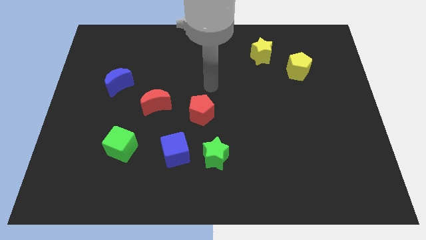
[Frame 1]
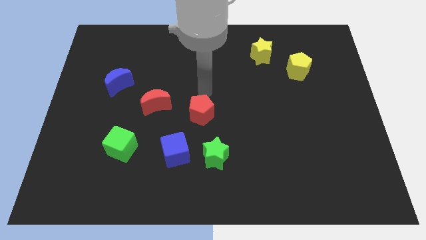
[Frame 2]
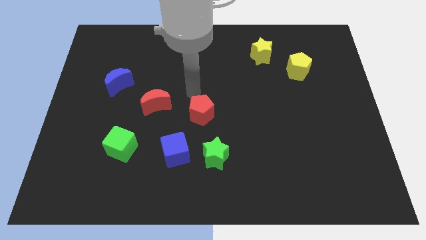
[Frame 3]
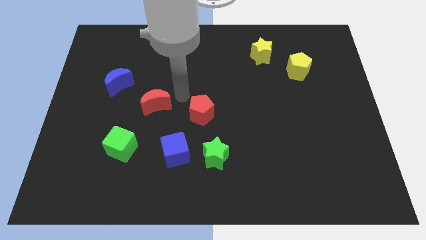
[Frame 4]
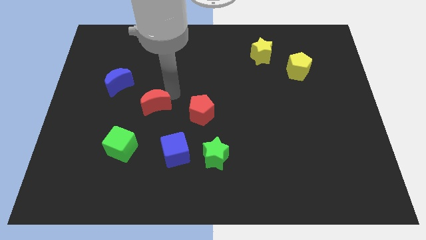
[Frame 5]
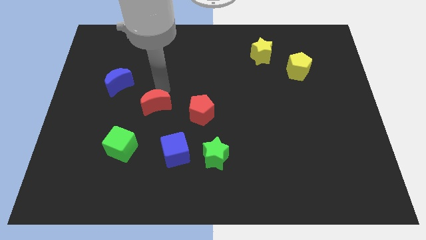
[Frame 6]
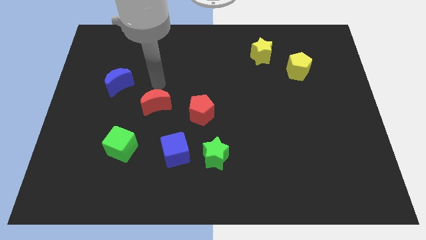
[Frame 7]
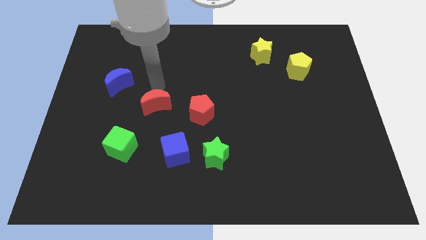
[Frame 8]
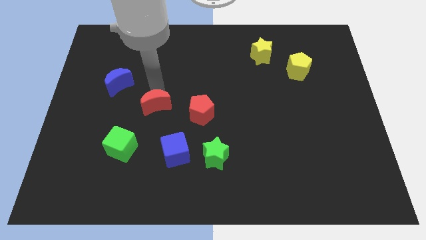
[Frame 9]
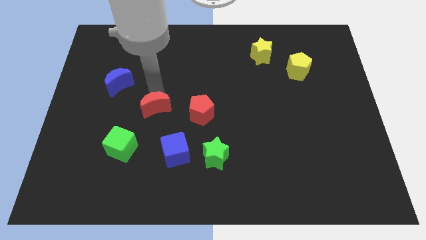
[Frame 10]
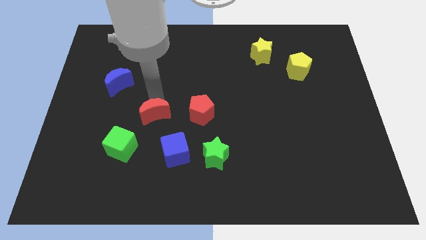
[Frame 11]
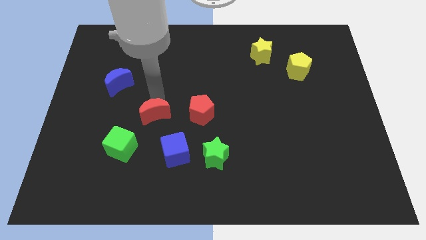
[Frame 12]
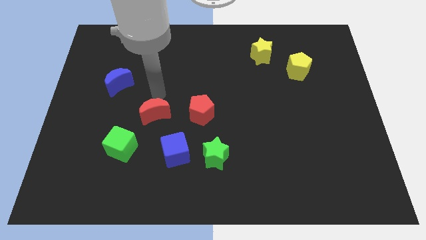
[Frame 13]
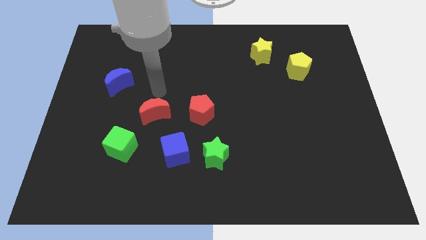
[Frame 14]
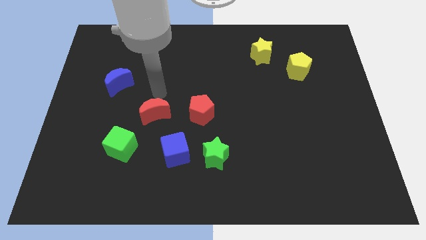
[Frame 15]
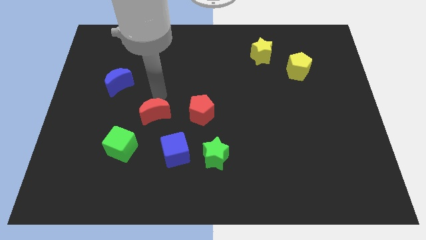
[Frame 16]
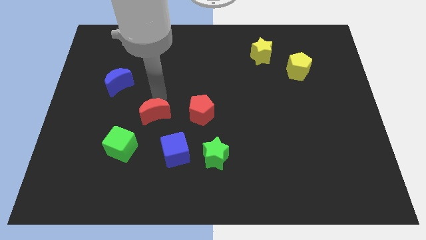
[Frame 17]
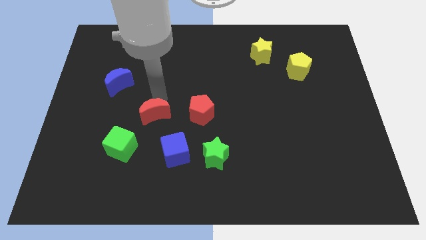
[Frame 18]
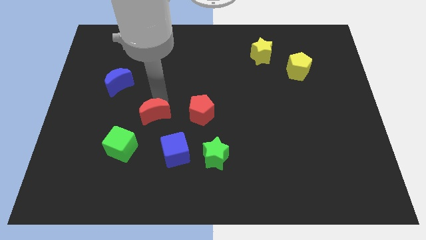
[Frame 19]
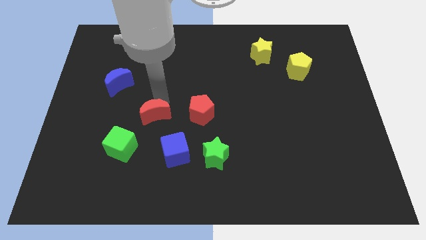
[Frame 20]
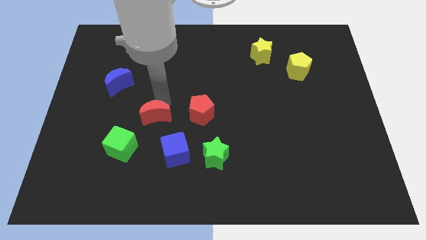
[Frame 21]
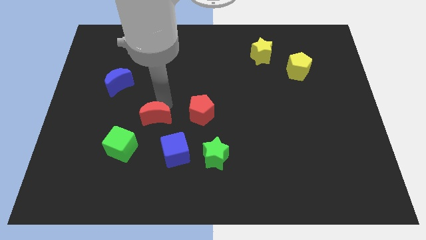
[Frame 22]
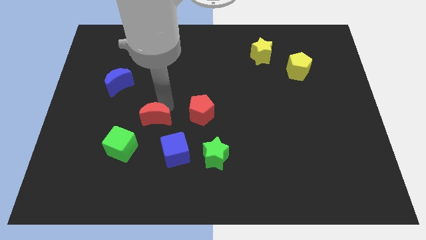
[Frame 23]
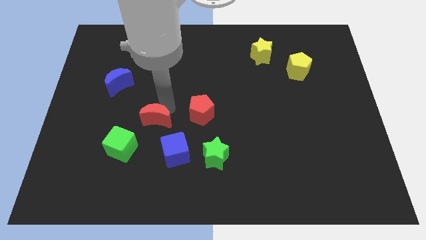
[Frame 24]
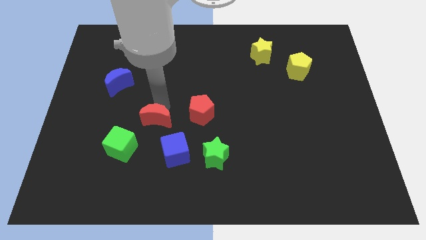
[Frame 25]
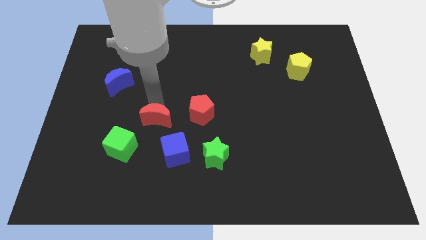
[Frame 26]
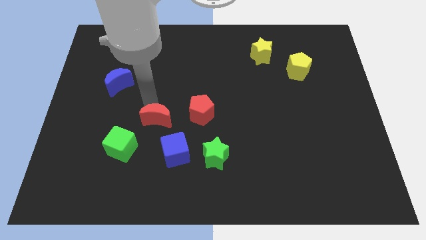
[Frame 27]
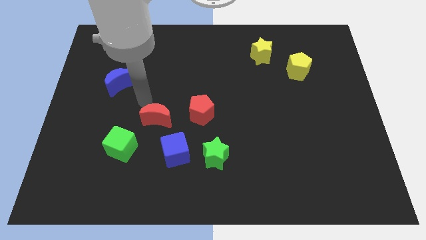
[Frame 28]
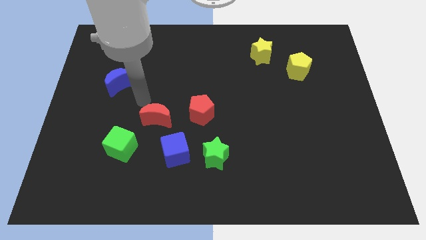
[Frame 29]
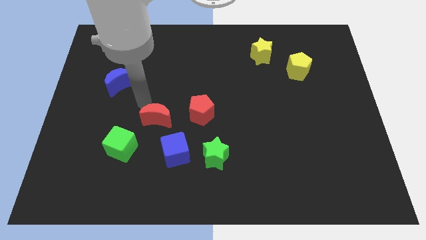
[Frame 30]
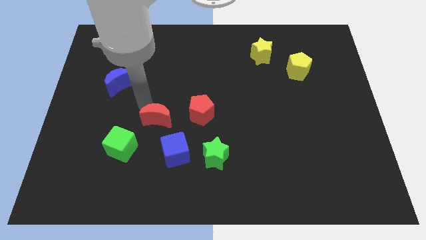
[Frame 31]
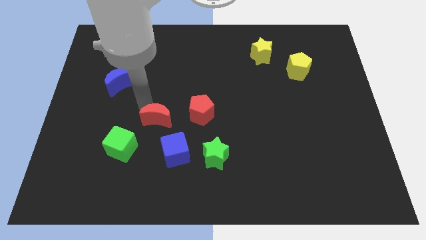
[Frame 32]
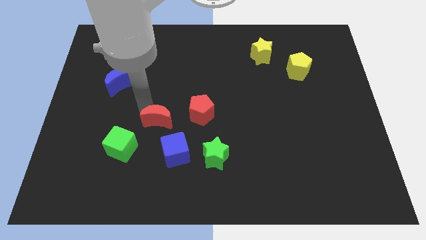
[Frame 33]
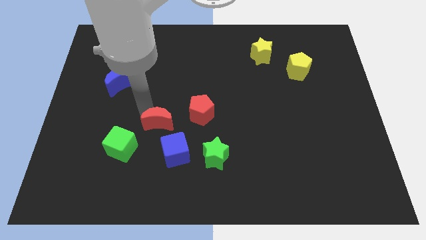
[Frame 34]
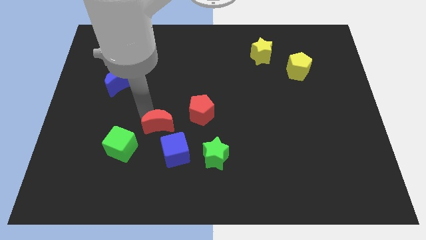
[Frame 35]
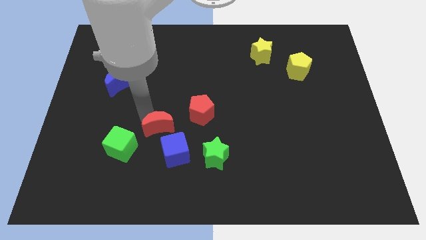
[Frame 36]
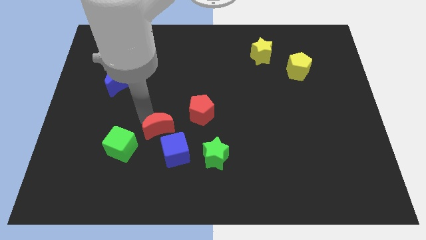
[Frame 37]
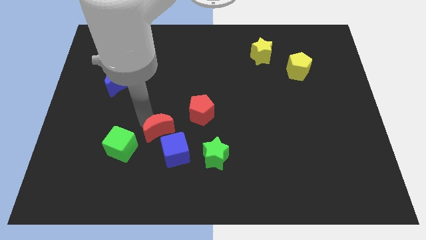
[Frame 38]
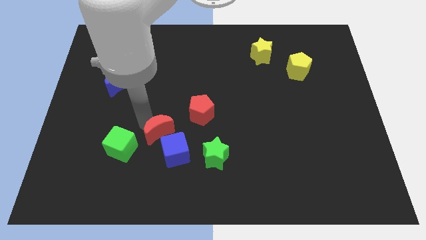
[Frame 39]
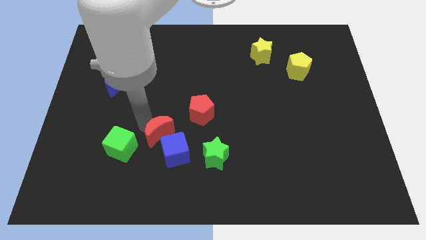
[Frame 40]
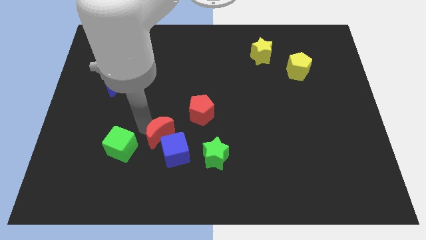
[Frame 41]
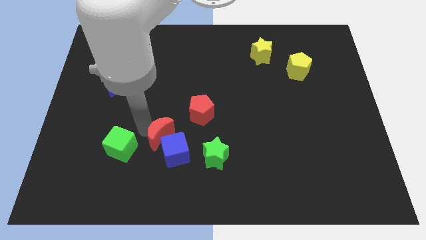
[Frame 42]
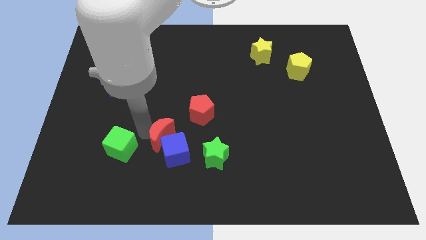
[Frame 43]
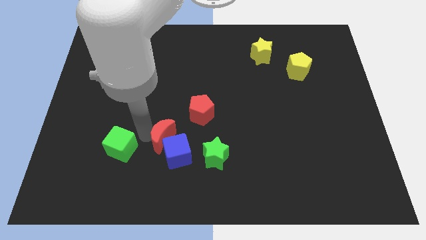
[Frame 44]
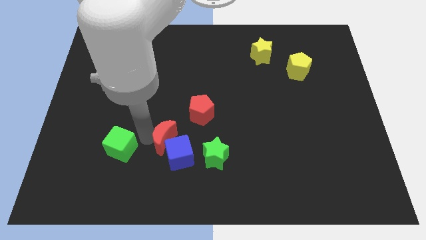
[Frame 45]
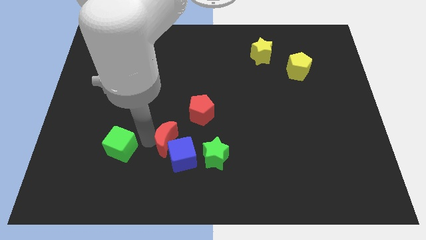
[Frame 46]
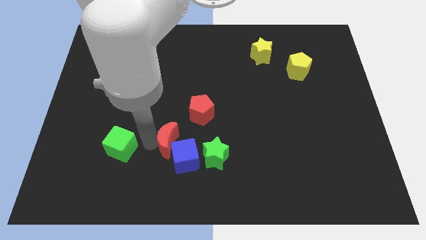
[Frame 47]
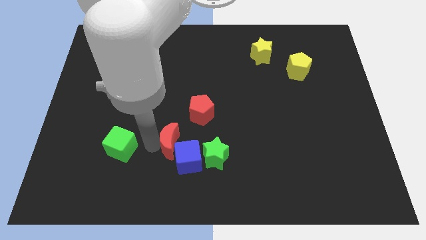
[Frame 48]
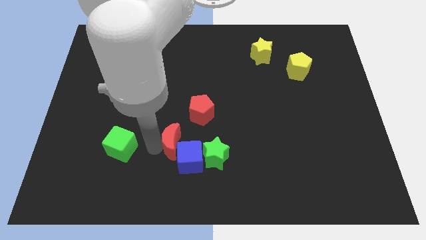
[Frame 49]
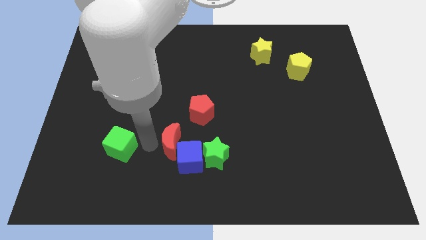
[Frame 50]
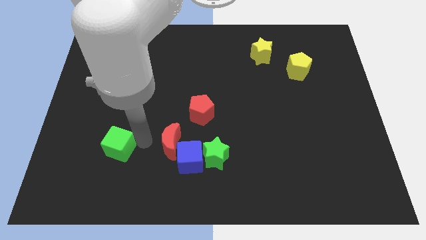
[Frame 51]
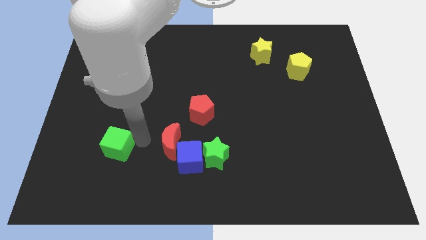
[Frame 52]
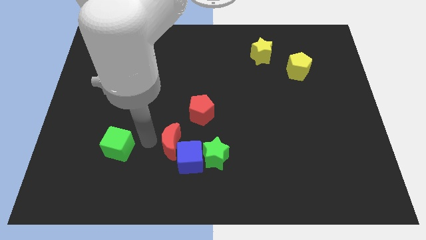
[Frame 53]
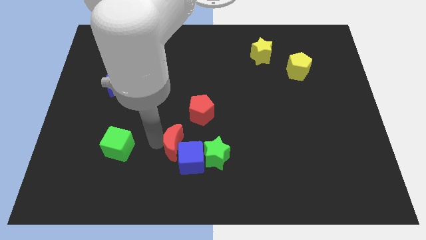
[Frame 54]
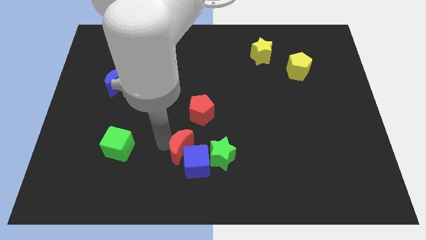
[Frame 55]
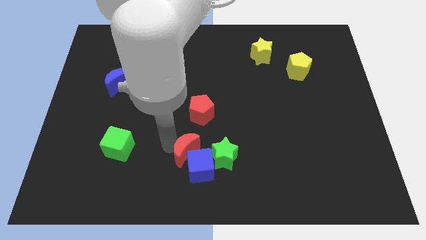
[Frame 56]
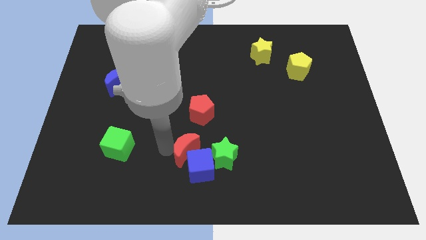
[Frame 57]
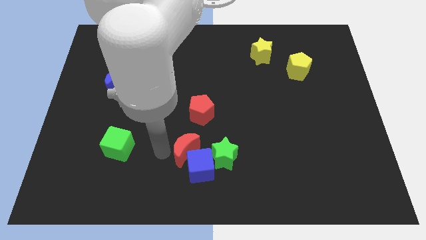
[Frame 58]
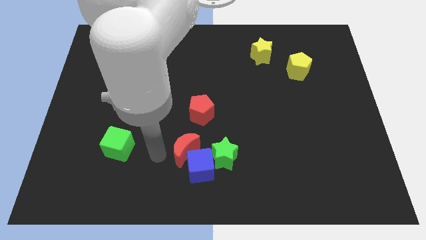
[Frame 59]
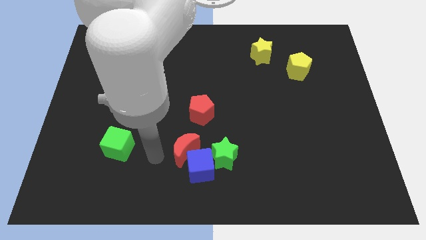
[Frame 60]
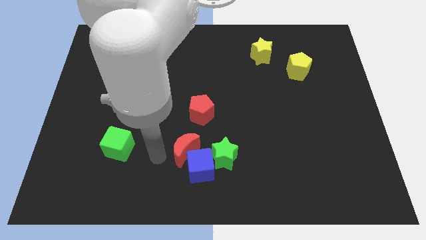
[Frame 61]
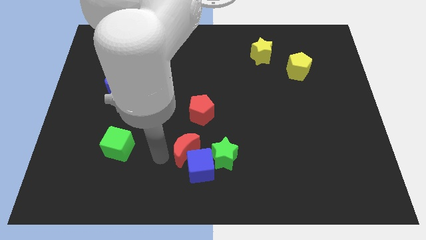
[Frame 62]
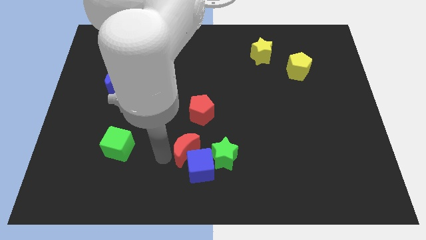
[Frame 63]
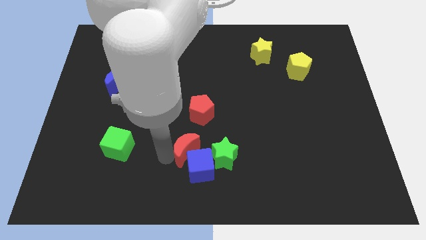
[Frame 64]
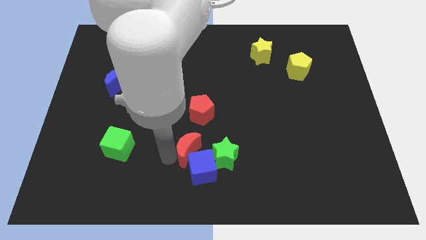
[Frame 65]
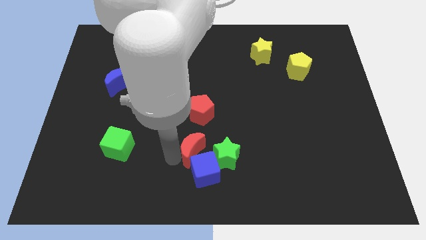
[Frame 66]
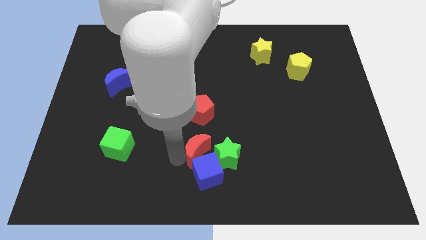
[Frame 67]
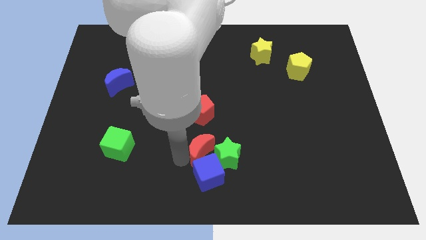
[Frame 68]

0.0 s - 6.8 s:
push the red moon close to the green star

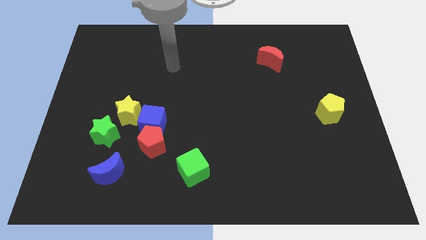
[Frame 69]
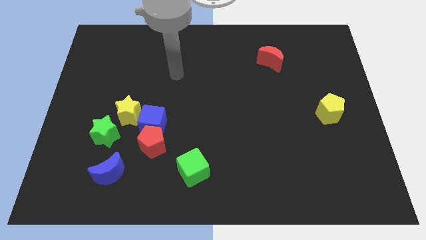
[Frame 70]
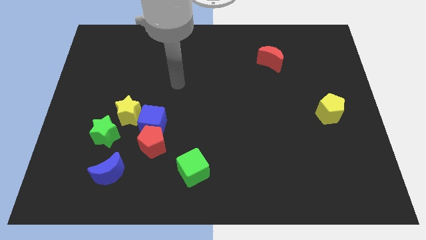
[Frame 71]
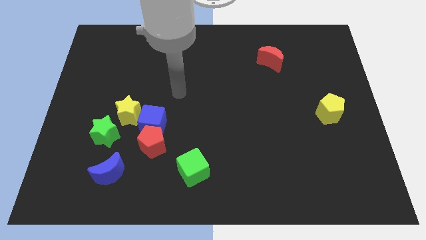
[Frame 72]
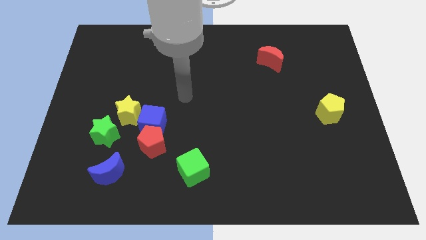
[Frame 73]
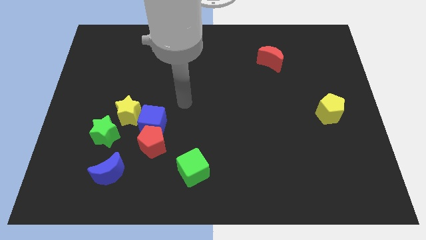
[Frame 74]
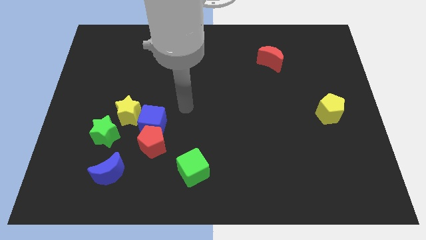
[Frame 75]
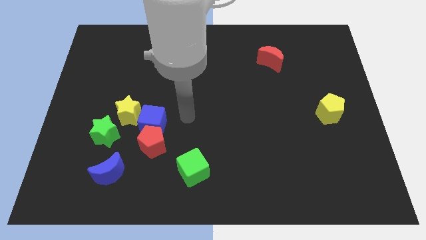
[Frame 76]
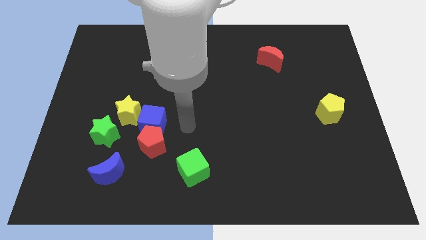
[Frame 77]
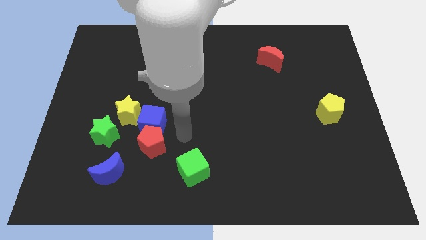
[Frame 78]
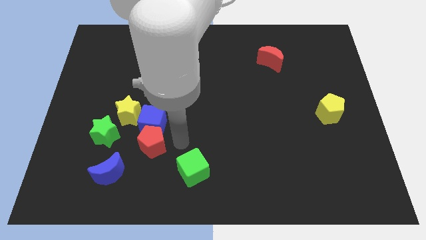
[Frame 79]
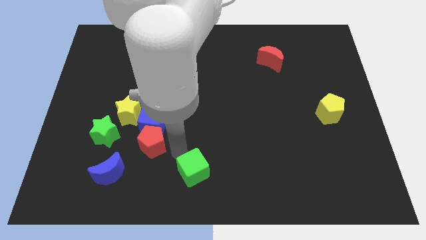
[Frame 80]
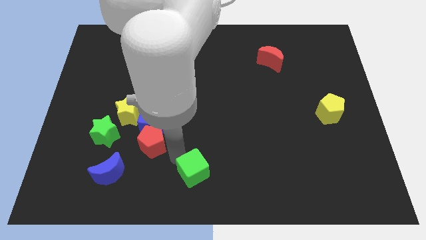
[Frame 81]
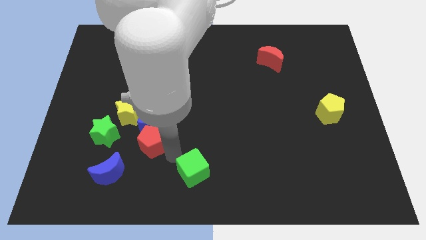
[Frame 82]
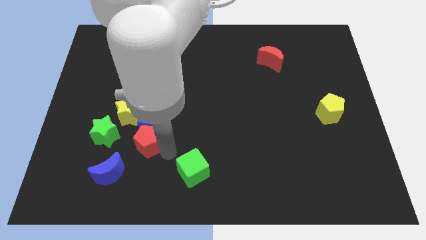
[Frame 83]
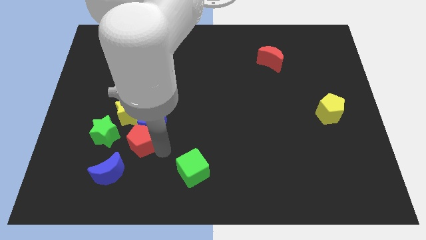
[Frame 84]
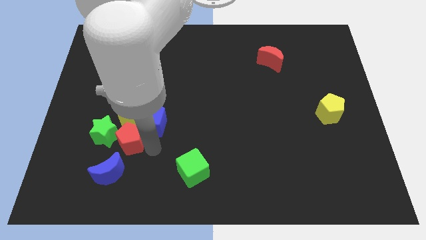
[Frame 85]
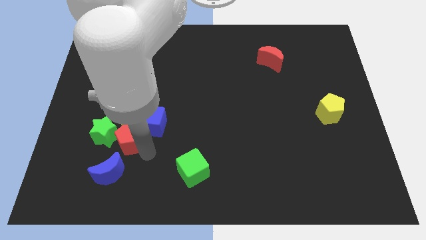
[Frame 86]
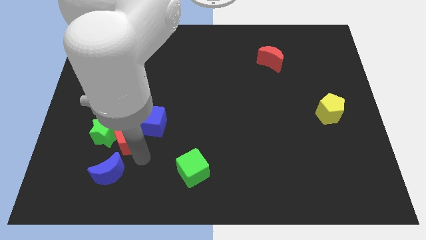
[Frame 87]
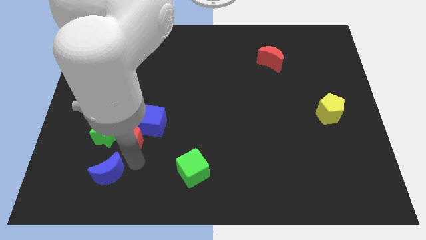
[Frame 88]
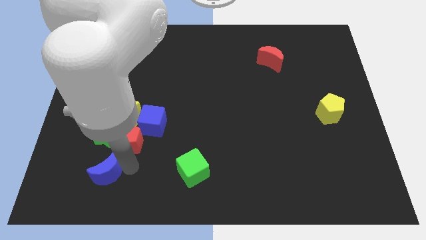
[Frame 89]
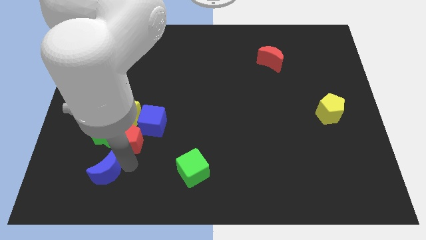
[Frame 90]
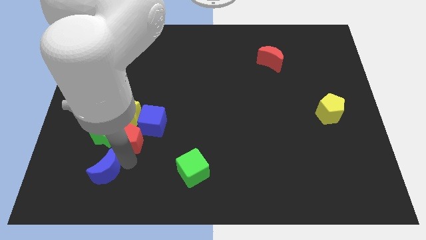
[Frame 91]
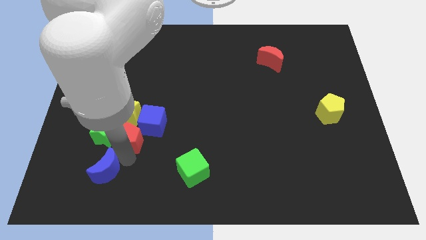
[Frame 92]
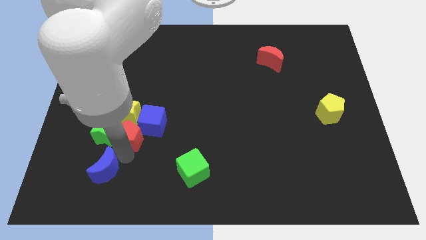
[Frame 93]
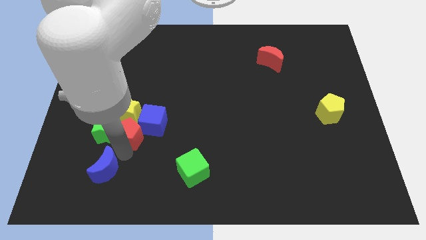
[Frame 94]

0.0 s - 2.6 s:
put the red pentagon to the yellow star
